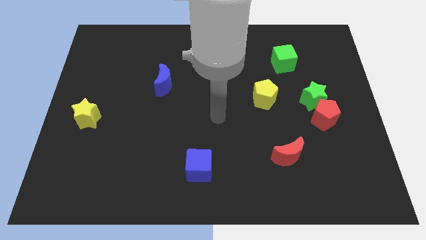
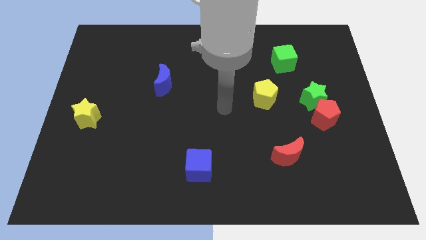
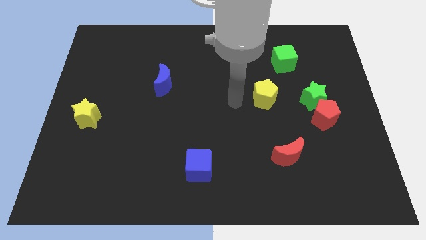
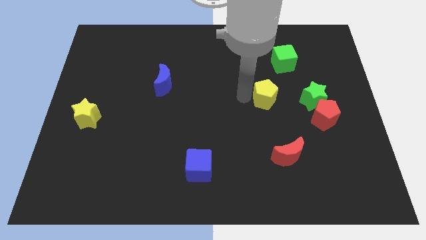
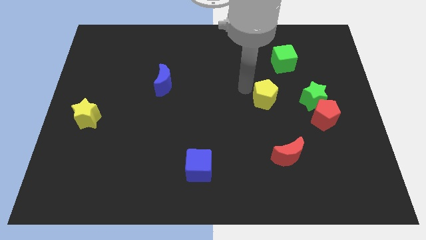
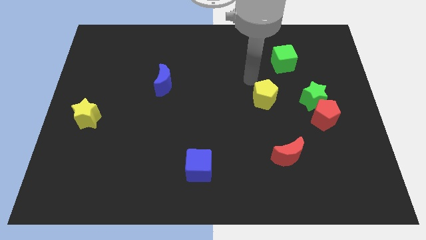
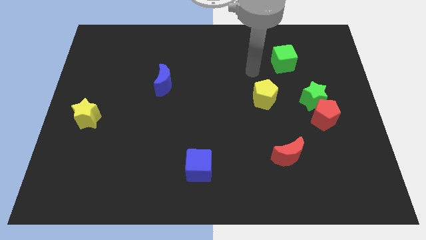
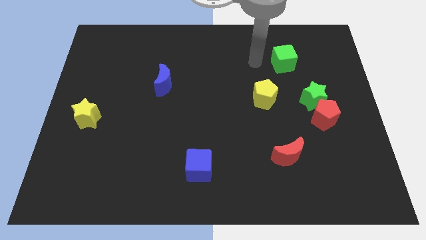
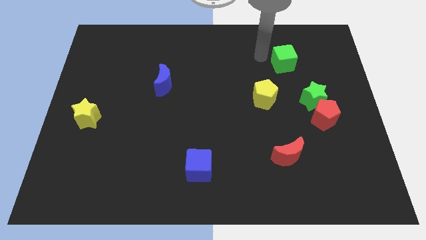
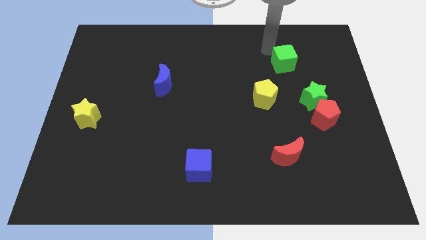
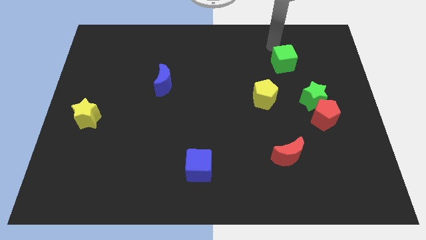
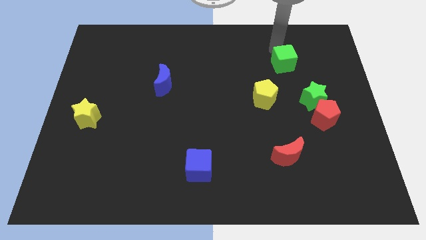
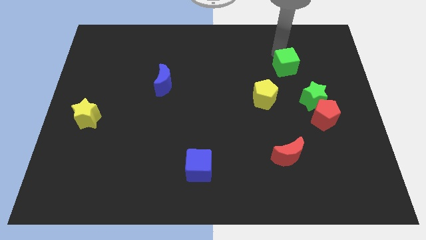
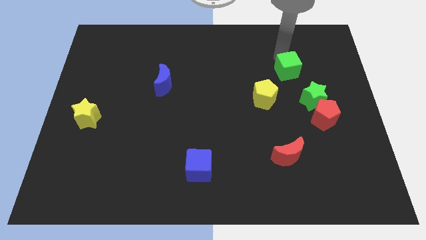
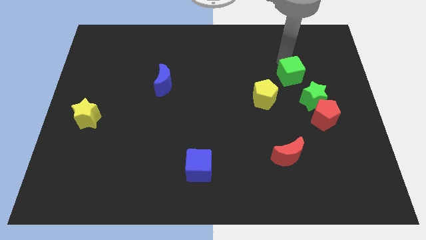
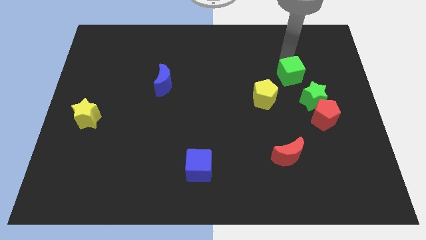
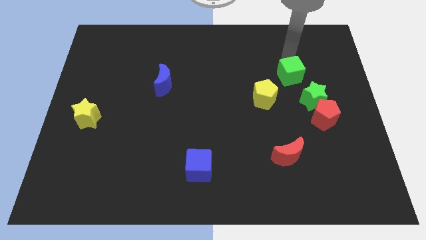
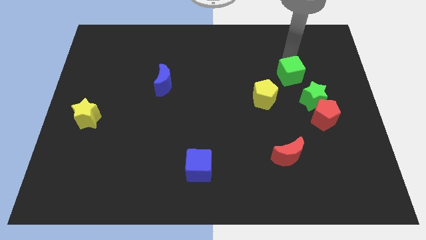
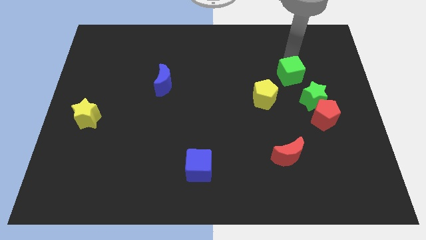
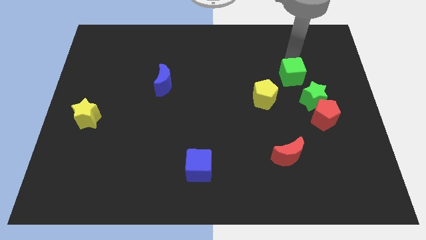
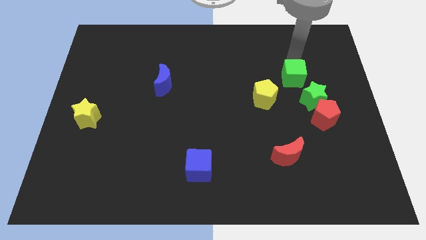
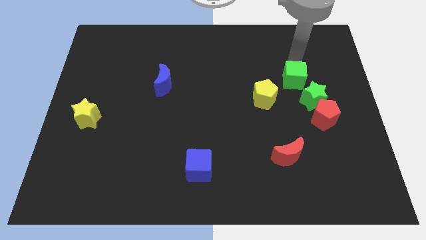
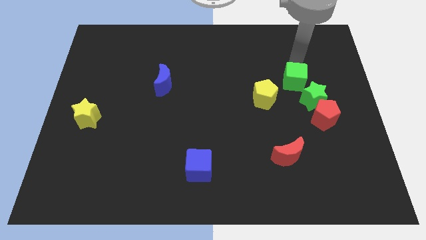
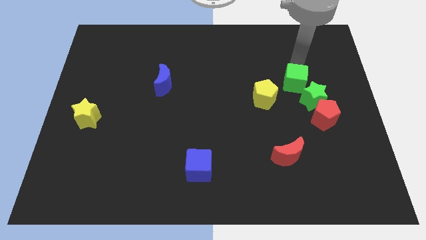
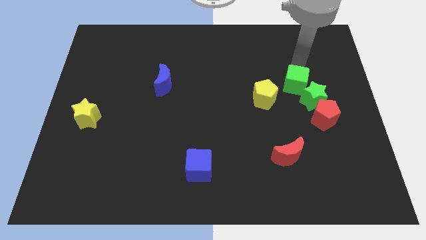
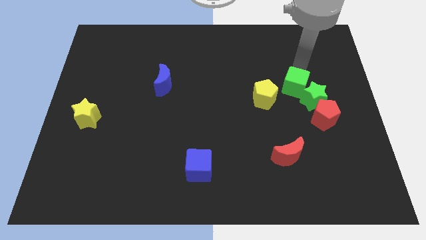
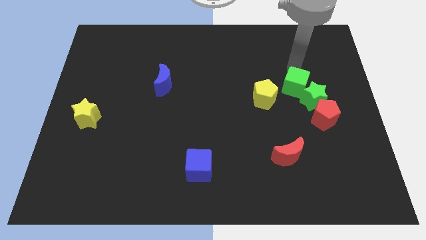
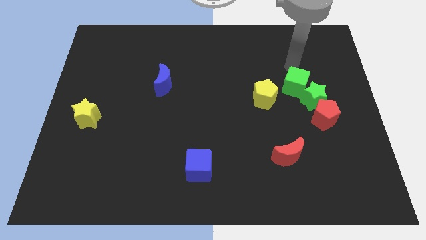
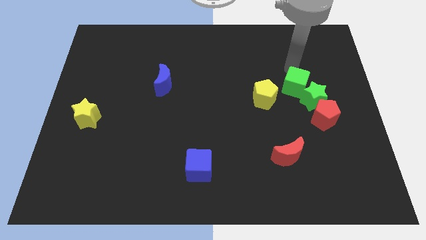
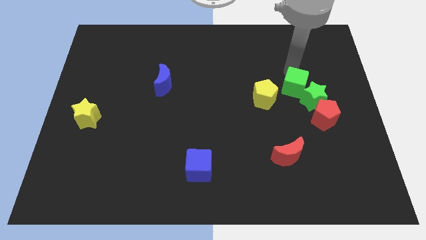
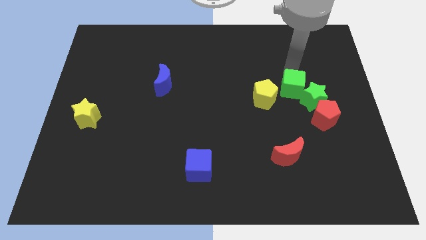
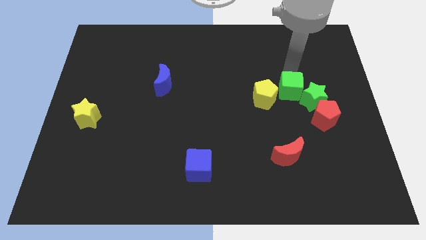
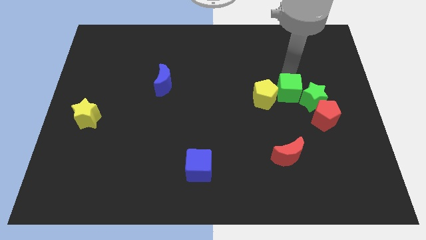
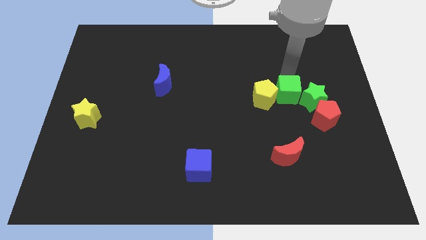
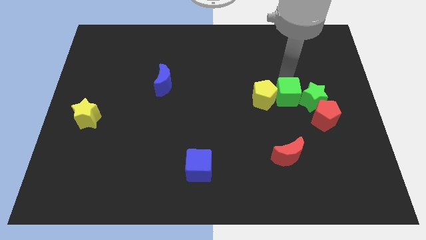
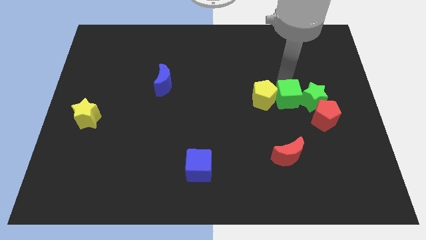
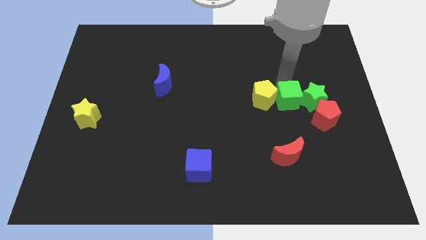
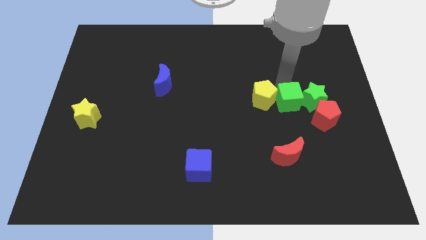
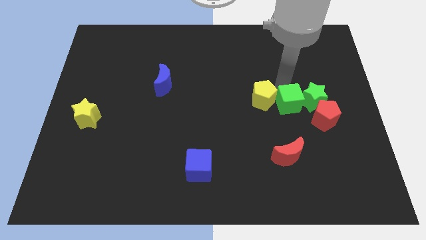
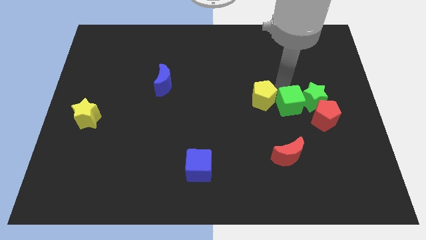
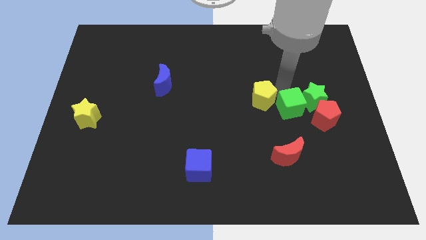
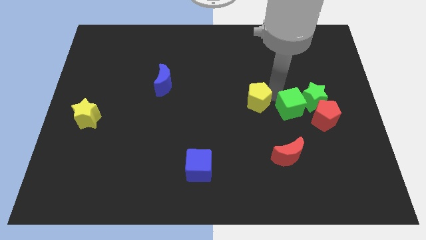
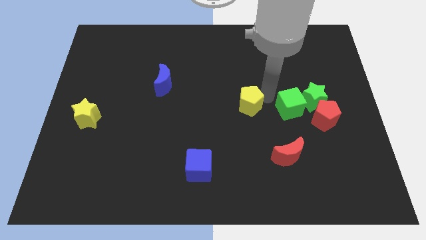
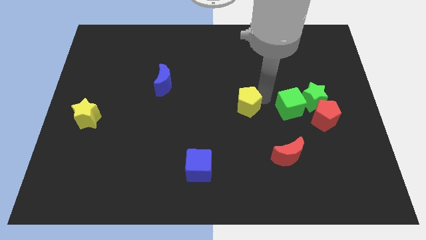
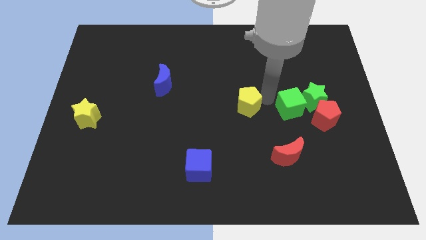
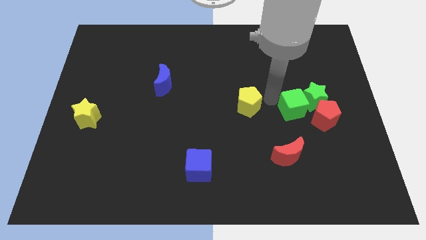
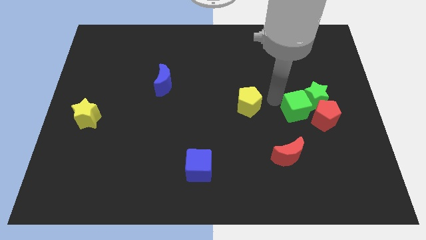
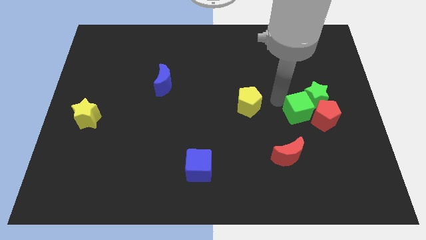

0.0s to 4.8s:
slide the green cube next to the red pentagon

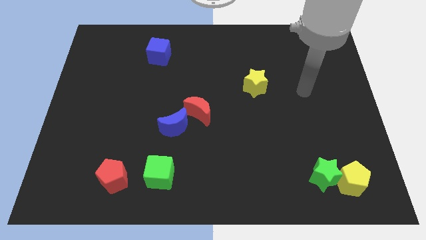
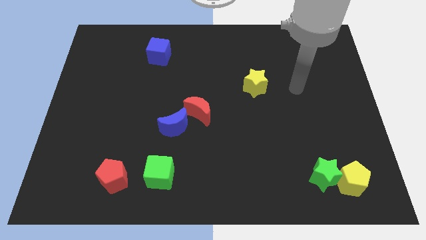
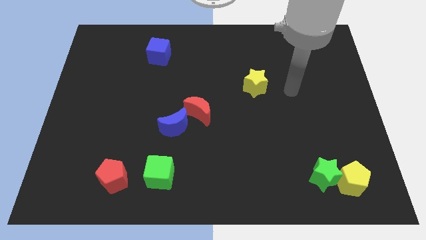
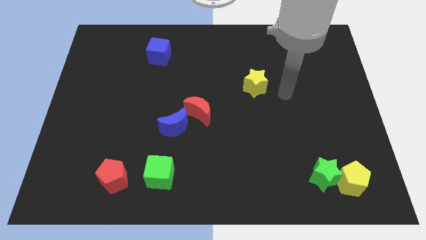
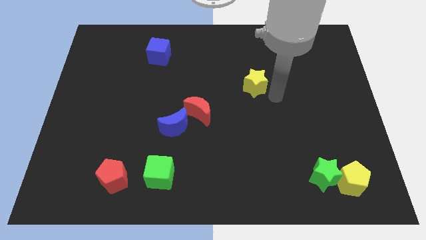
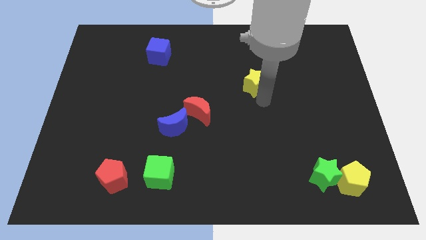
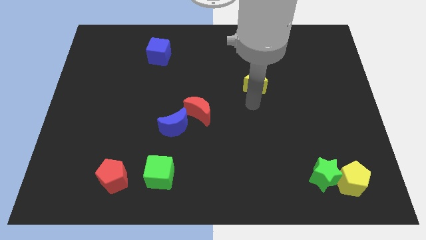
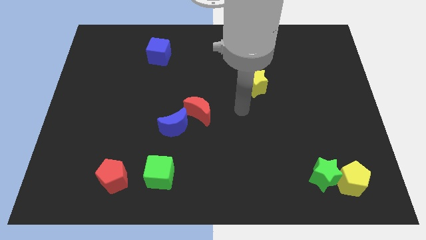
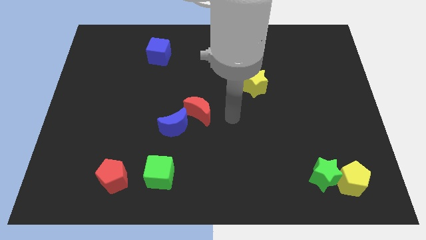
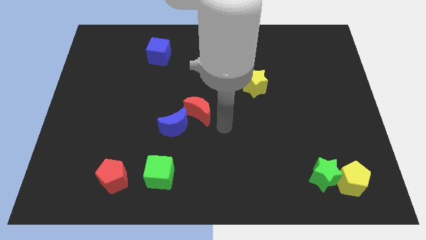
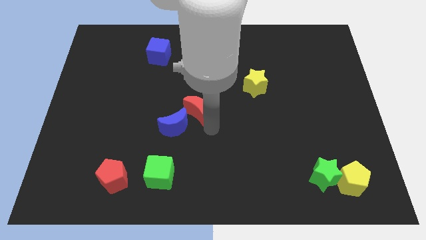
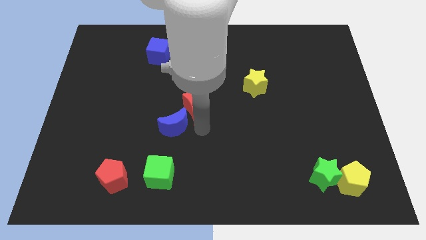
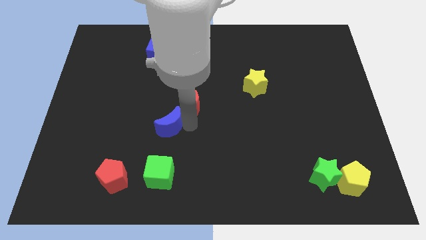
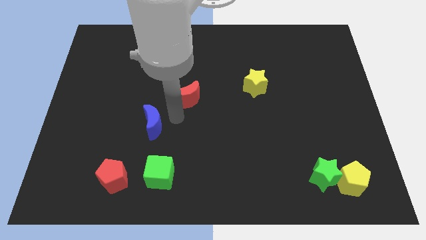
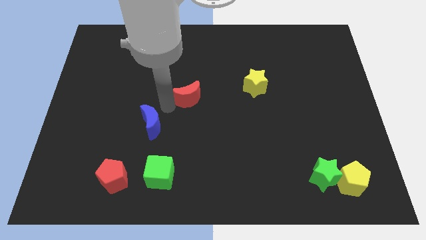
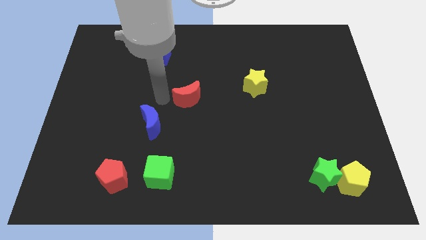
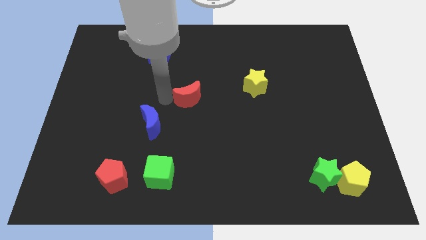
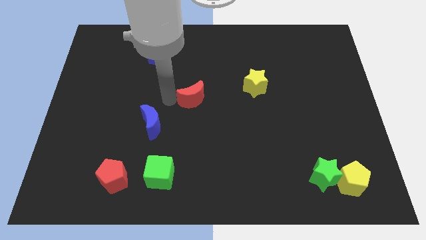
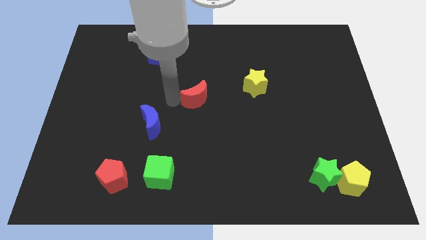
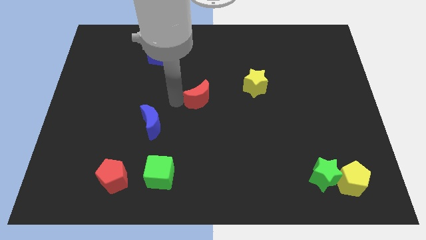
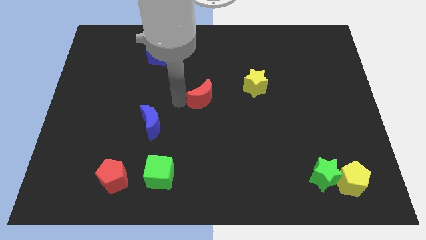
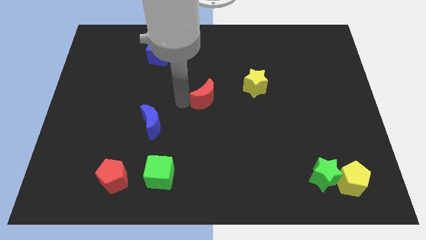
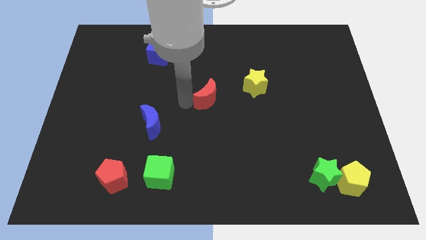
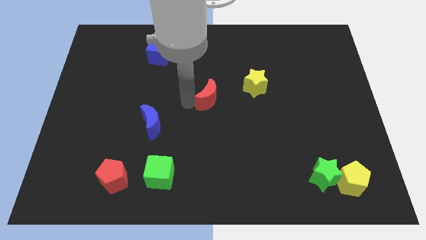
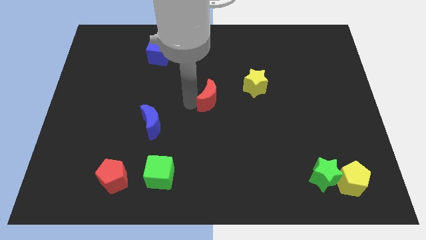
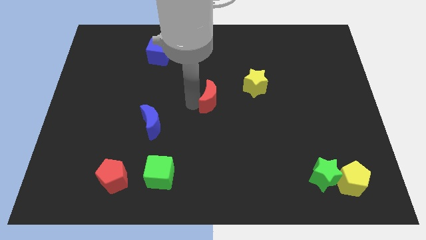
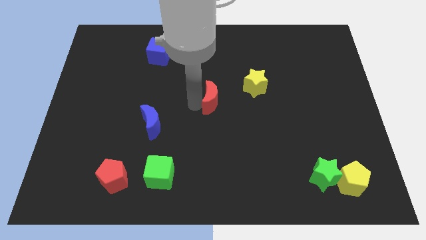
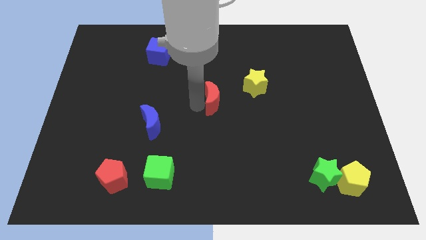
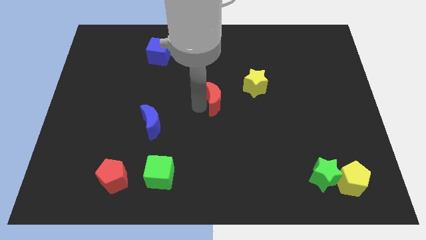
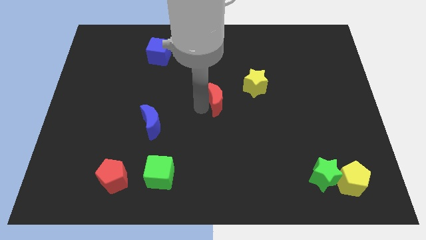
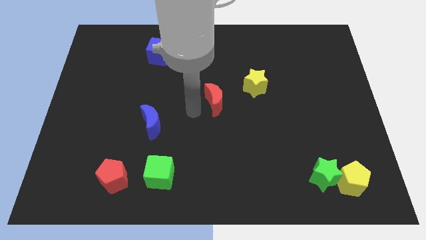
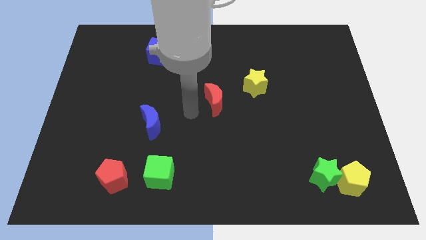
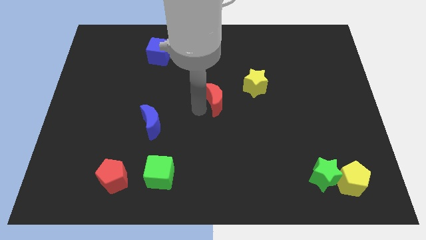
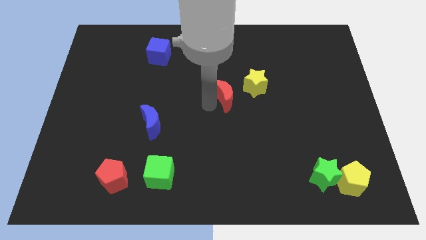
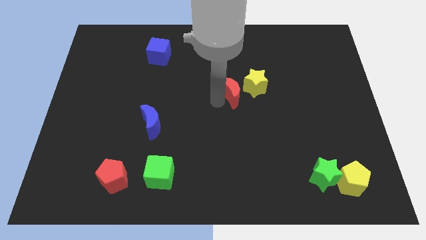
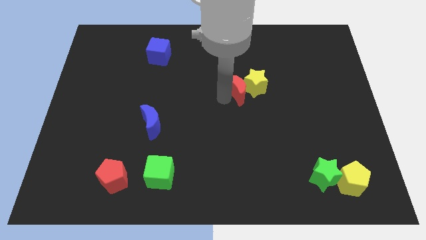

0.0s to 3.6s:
slide the red moon to the yellow star
